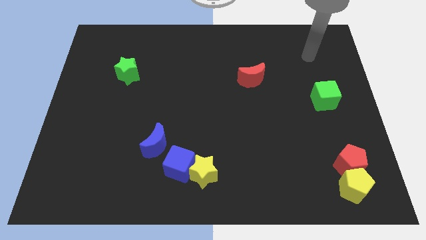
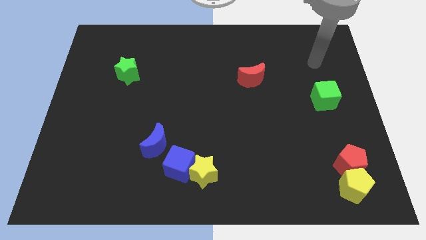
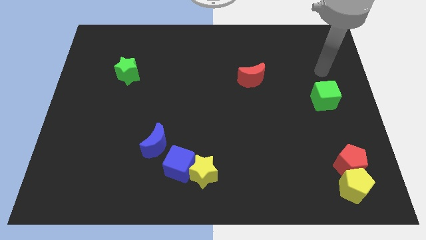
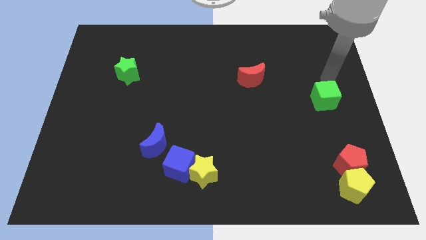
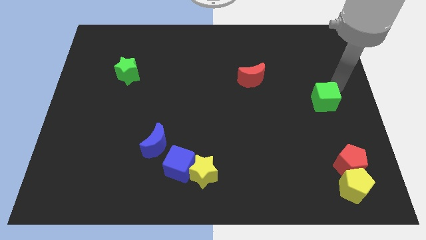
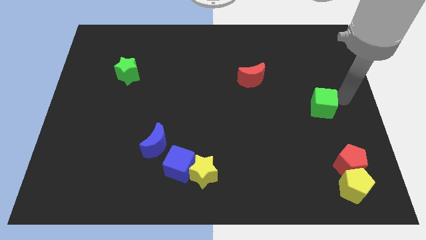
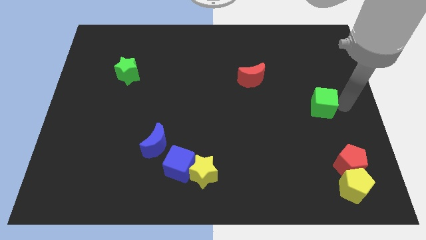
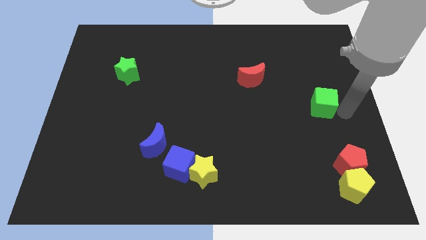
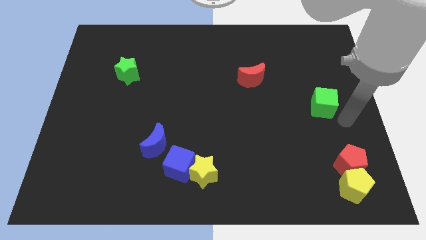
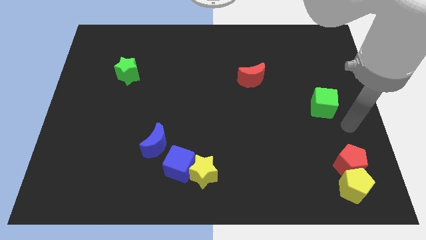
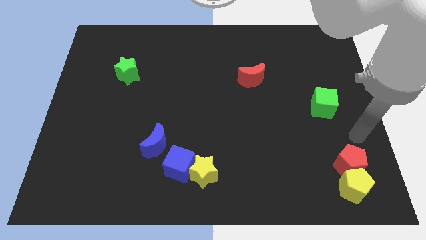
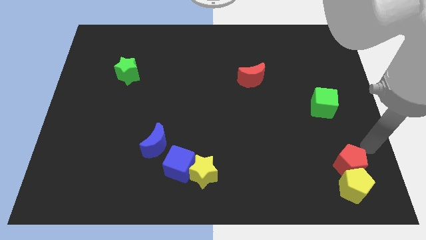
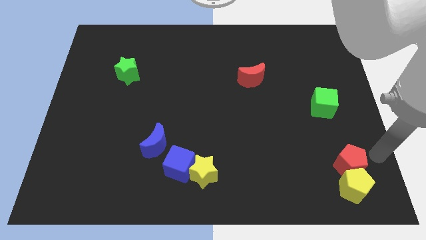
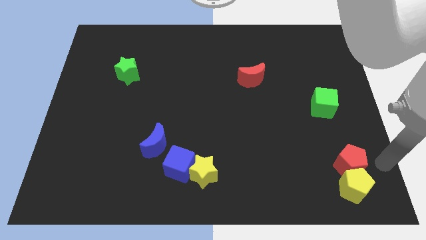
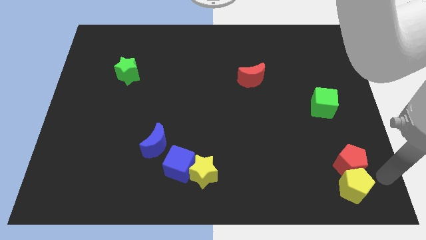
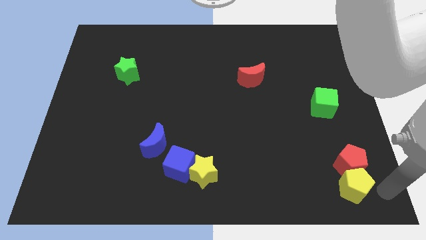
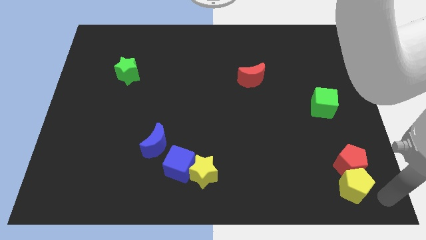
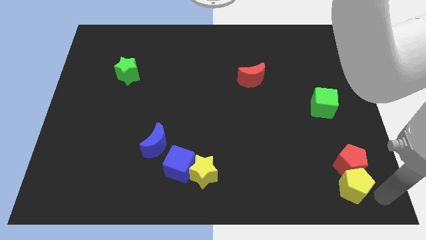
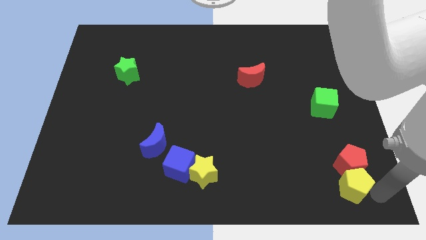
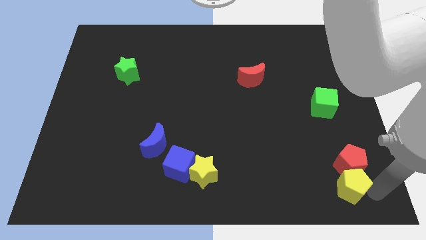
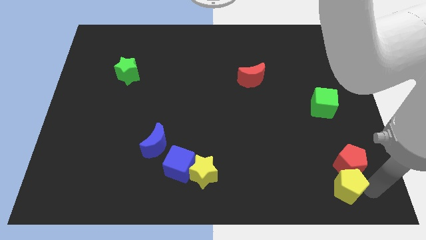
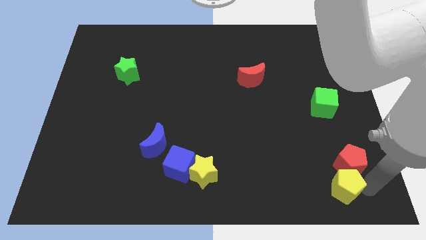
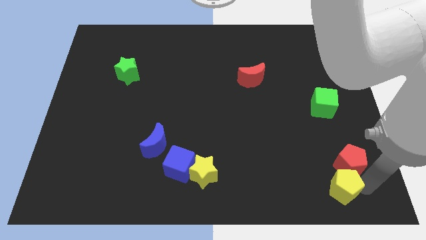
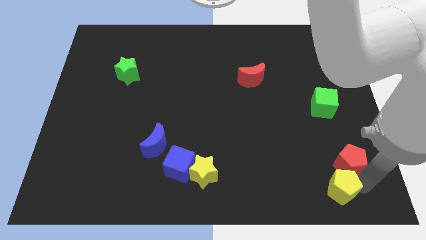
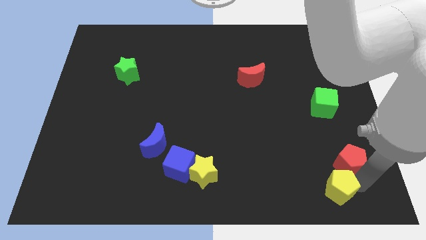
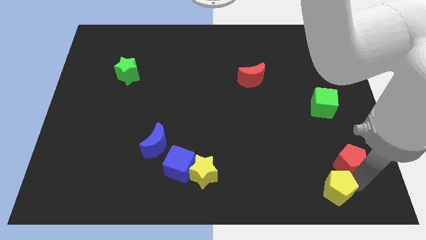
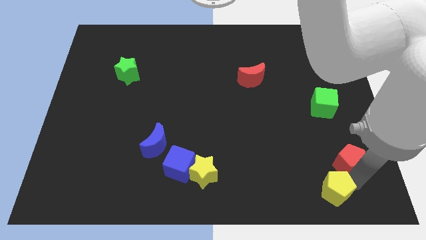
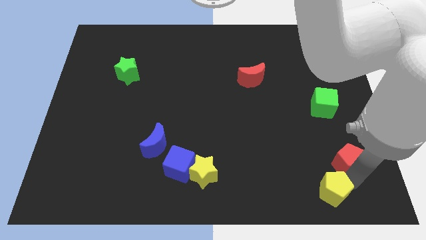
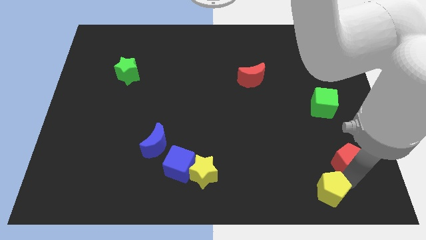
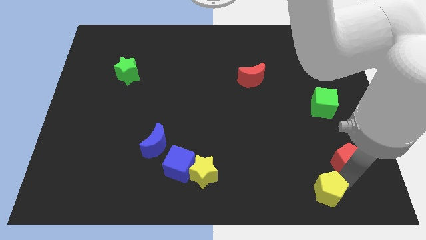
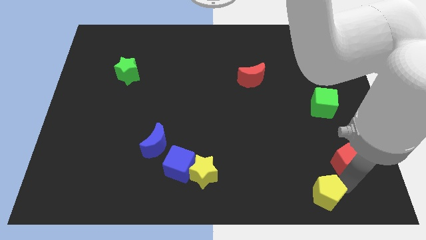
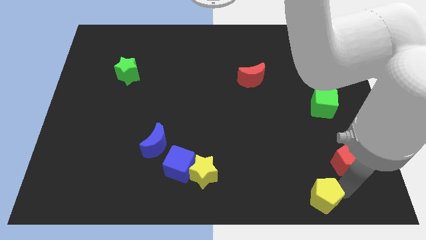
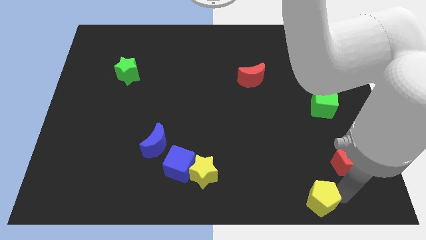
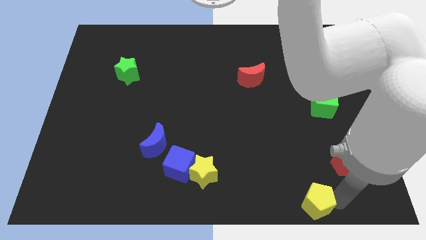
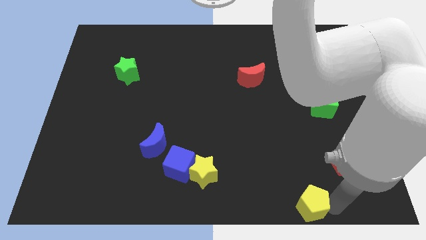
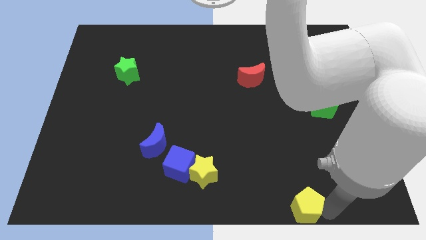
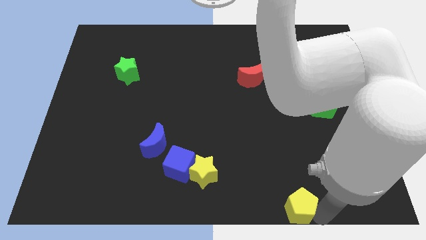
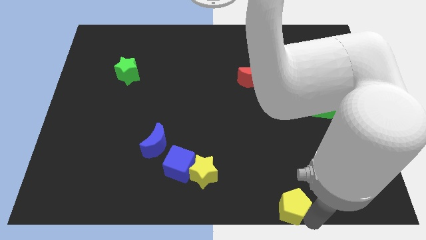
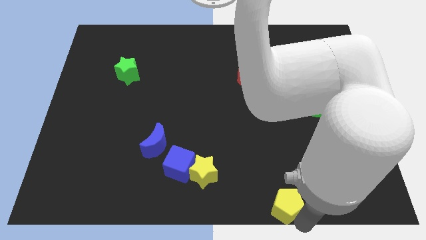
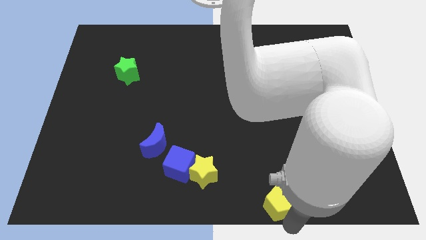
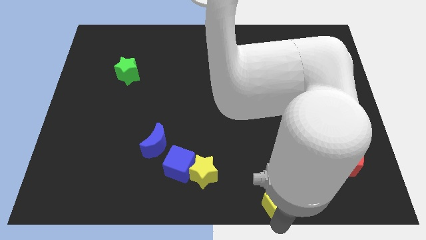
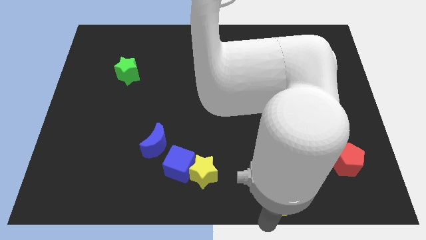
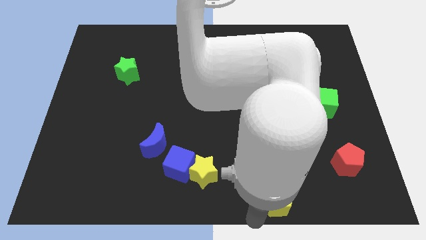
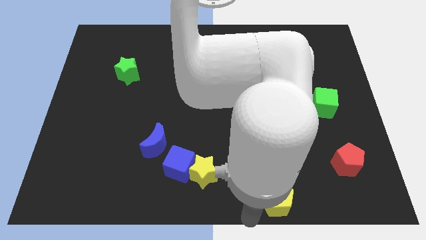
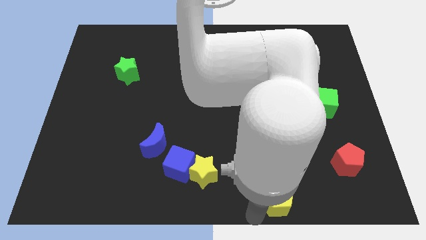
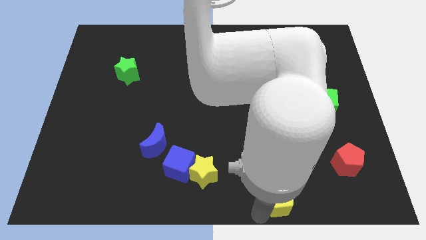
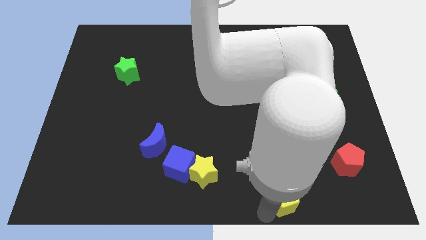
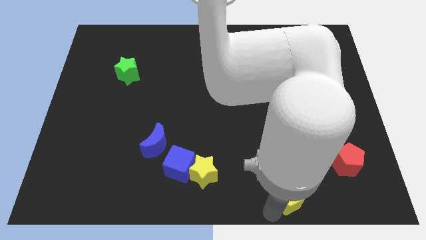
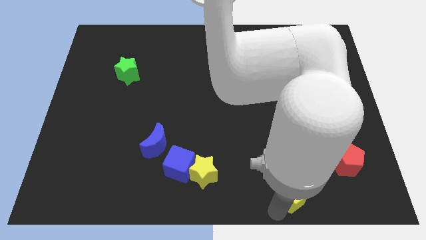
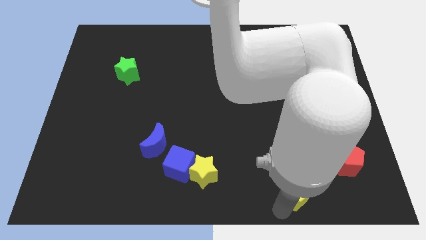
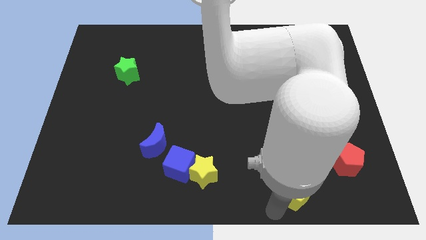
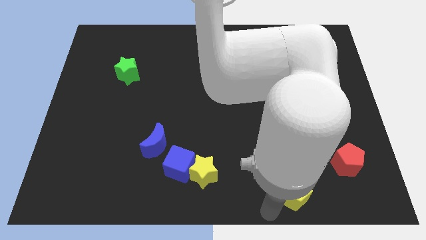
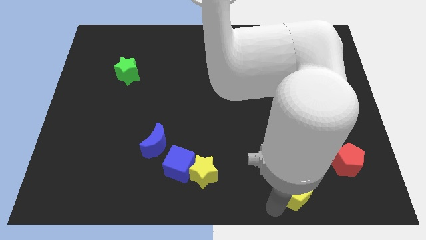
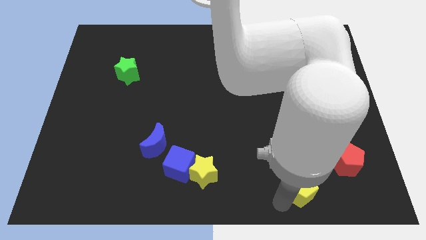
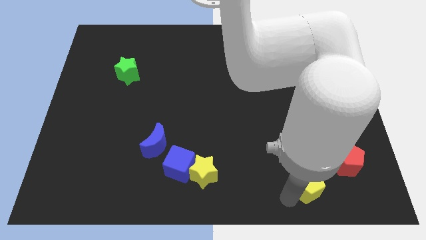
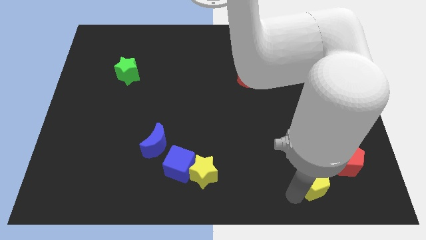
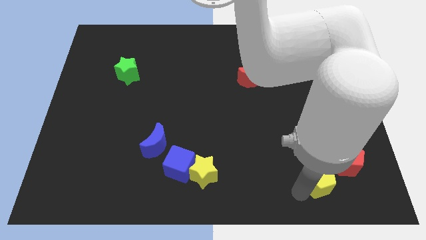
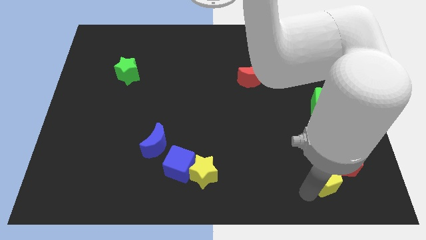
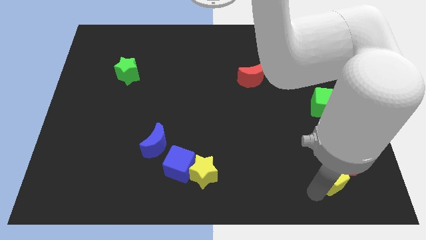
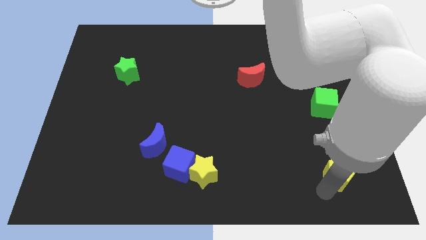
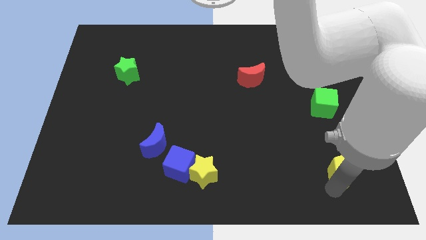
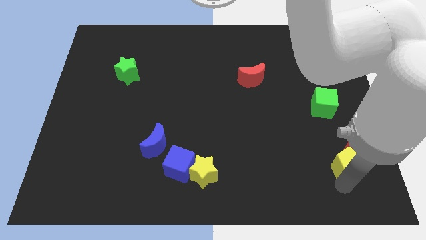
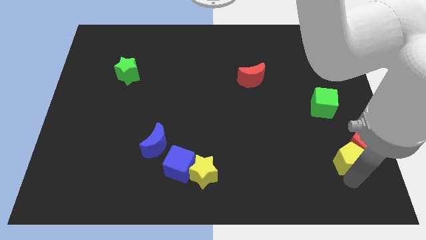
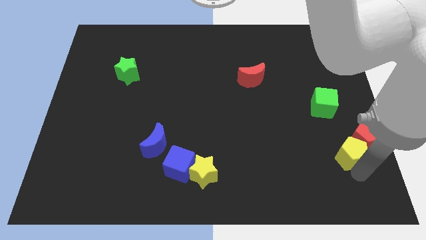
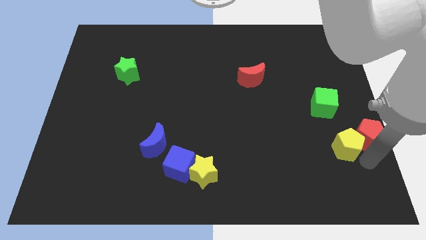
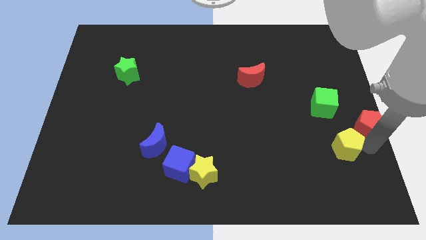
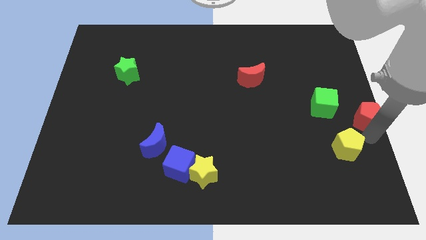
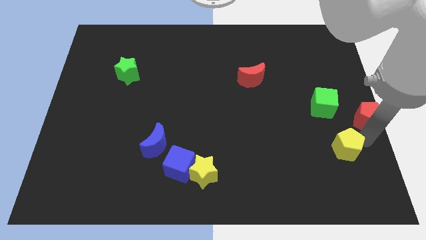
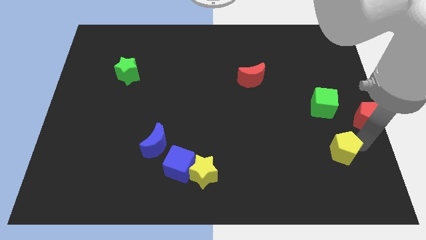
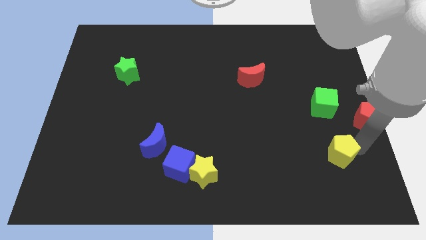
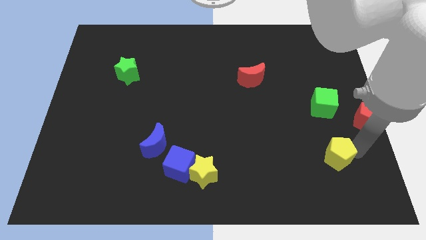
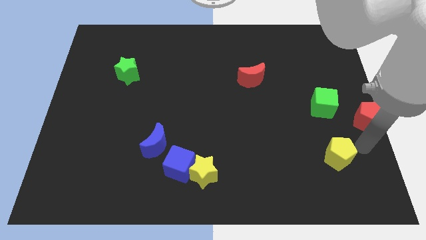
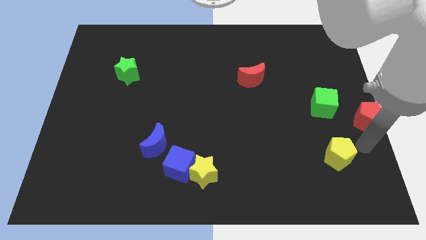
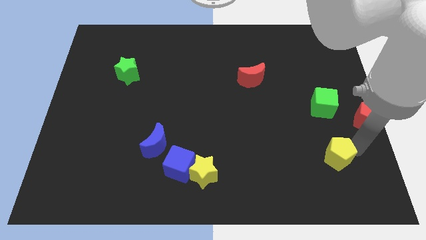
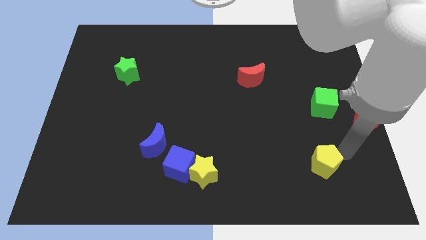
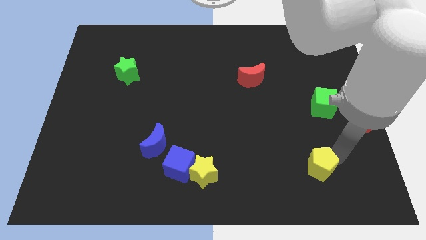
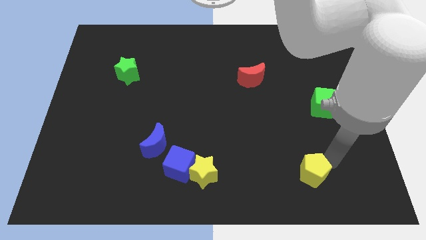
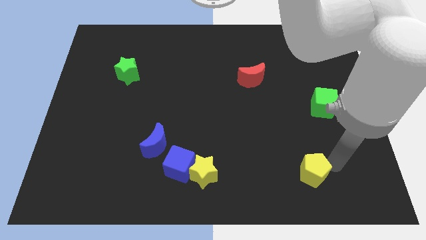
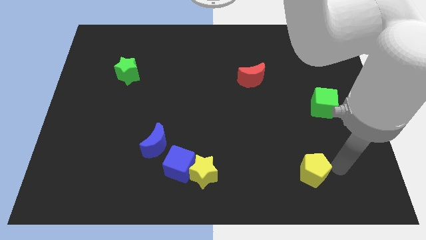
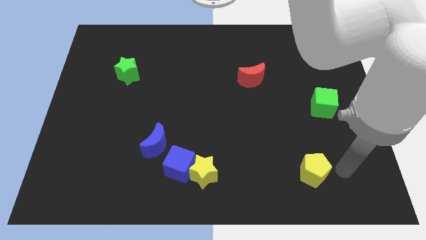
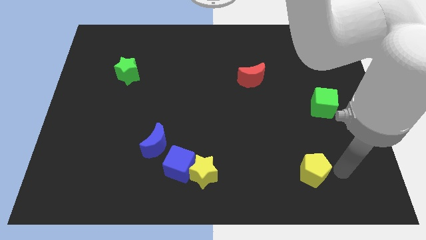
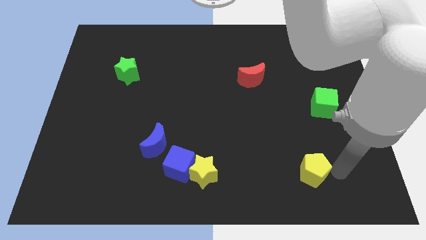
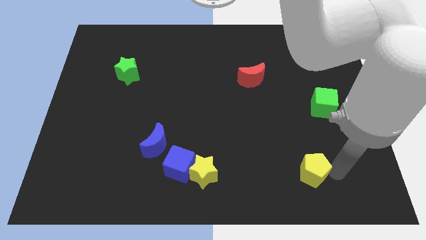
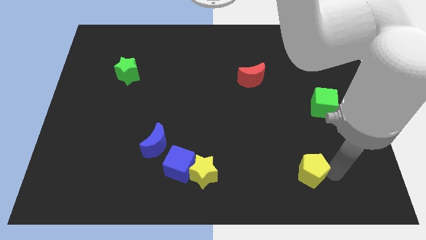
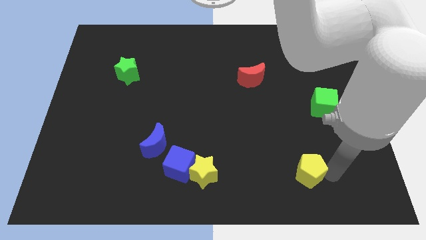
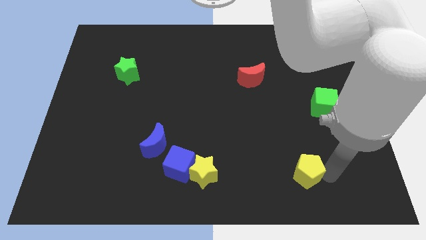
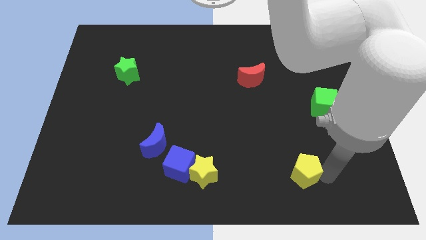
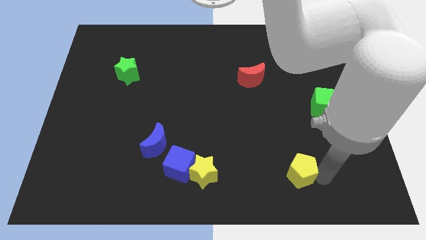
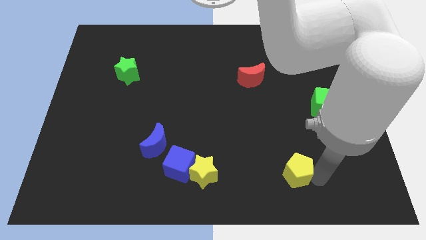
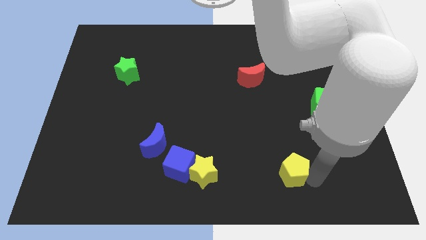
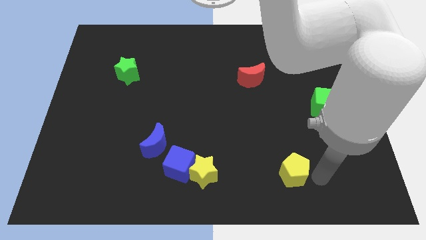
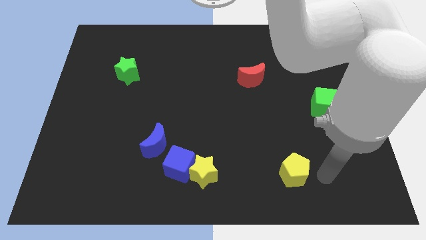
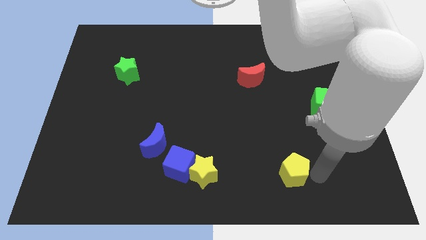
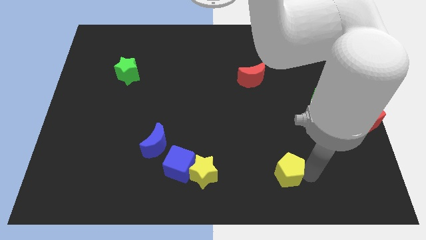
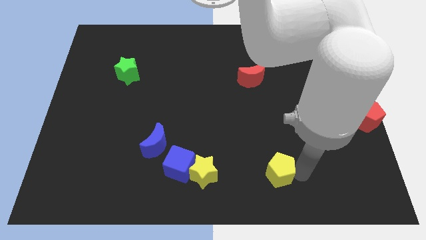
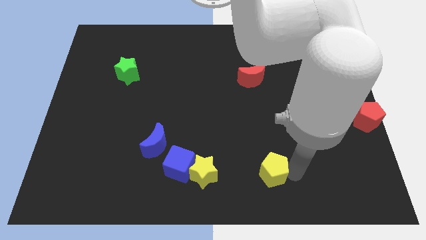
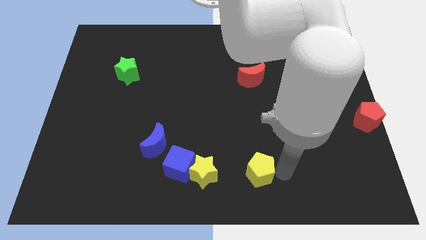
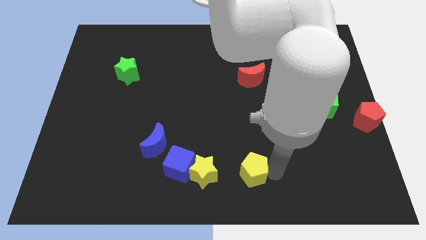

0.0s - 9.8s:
slide the yellow pentagon to the right of the blue cube
